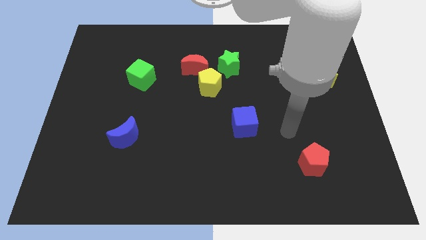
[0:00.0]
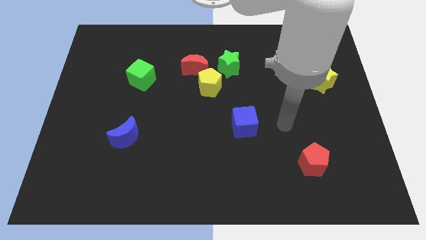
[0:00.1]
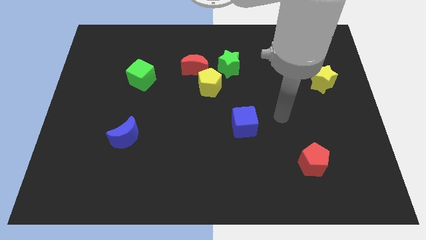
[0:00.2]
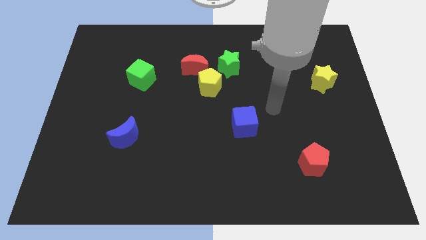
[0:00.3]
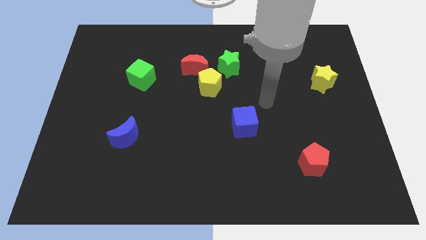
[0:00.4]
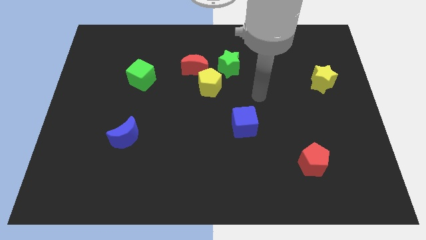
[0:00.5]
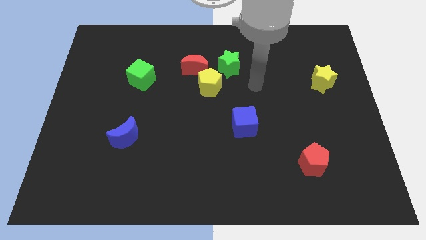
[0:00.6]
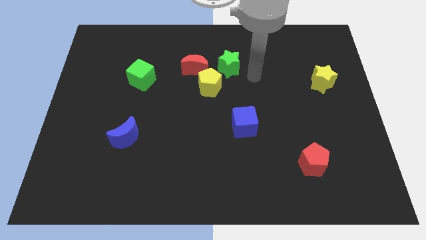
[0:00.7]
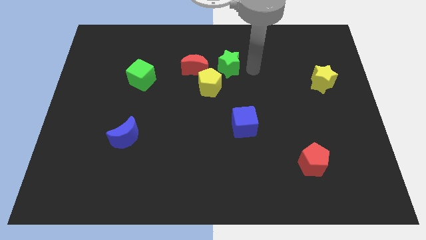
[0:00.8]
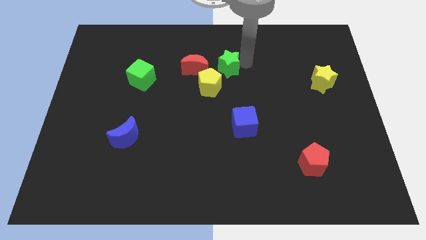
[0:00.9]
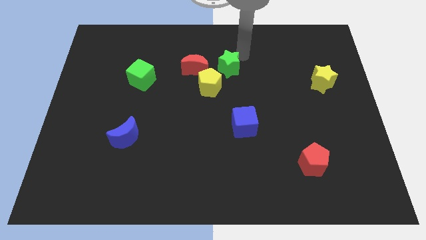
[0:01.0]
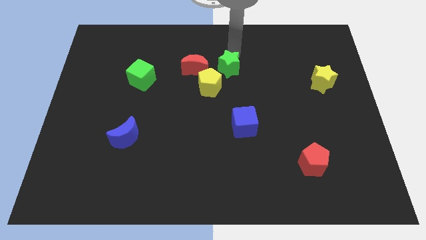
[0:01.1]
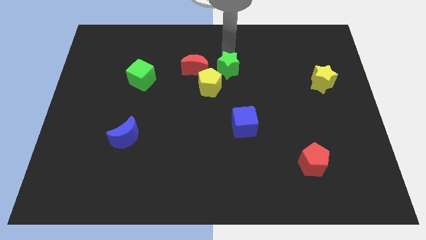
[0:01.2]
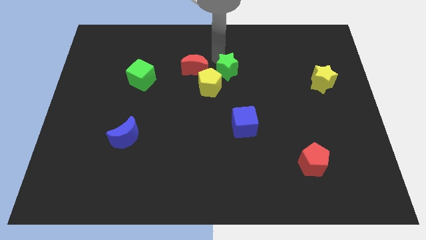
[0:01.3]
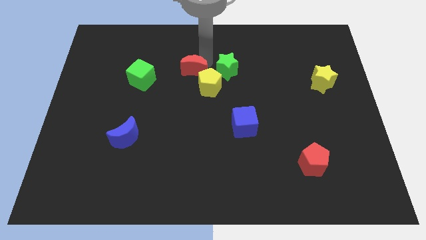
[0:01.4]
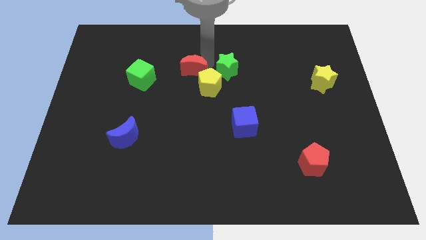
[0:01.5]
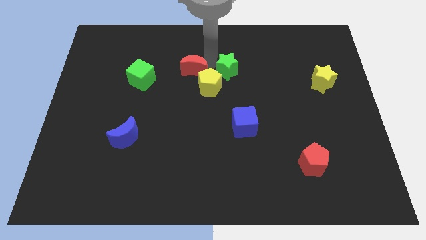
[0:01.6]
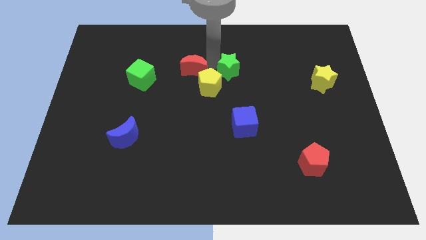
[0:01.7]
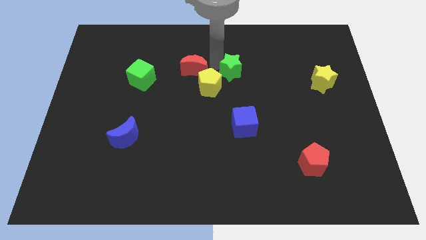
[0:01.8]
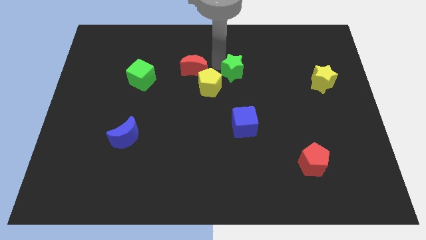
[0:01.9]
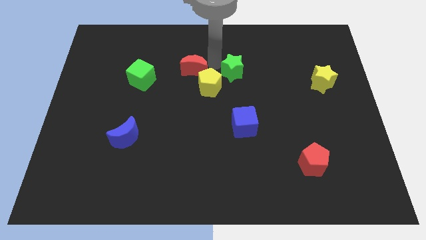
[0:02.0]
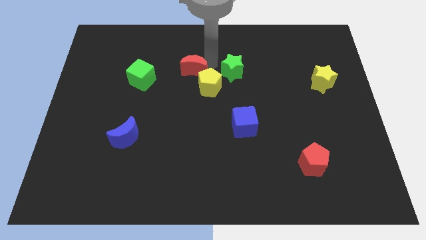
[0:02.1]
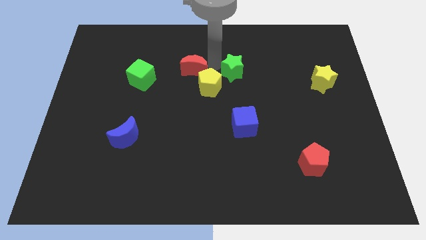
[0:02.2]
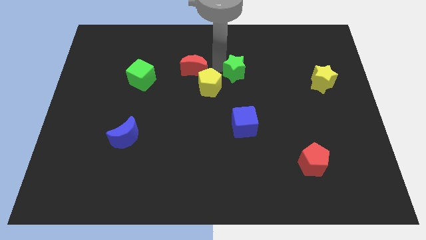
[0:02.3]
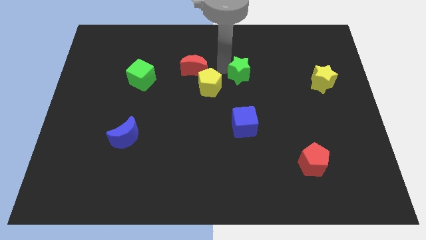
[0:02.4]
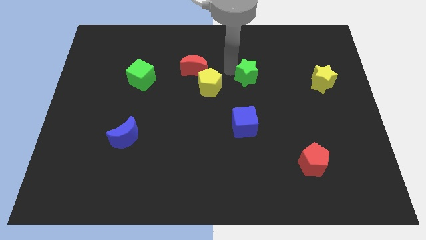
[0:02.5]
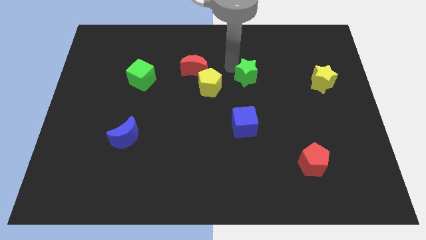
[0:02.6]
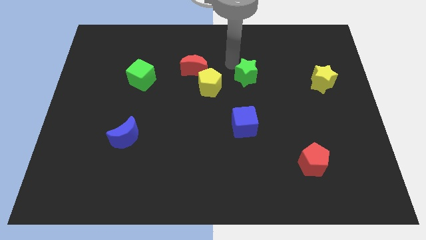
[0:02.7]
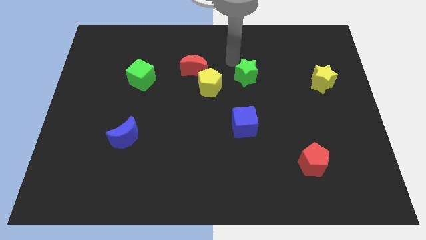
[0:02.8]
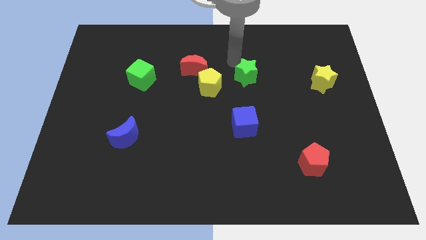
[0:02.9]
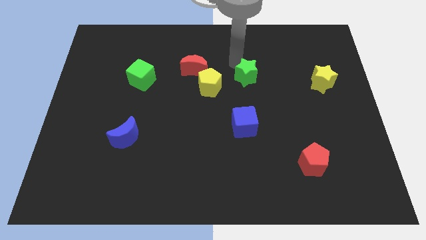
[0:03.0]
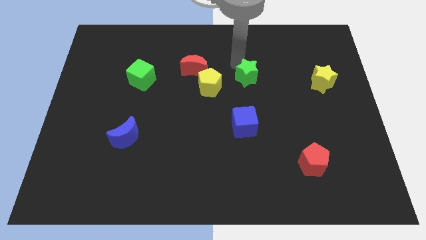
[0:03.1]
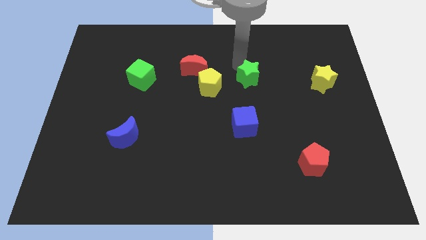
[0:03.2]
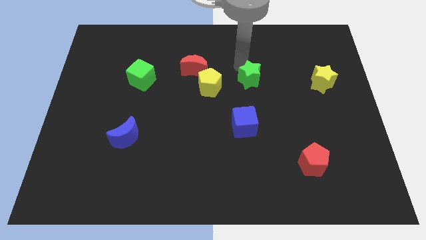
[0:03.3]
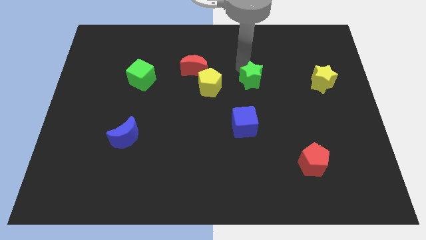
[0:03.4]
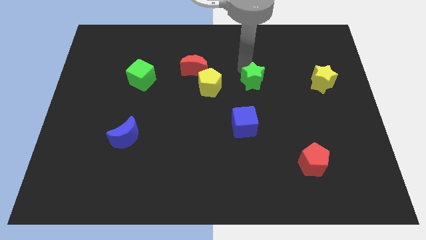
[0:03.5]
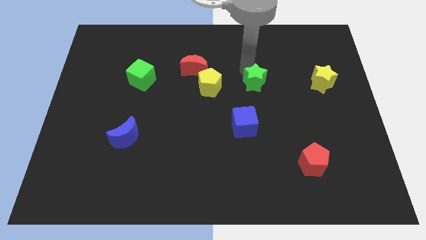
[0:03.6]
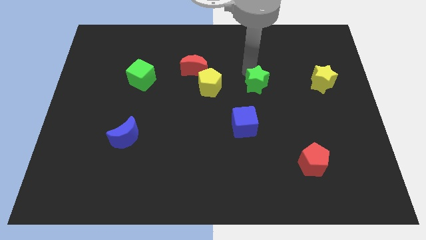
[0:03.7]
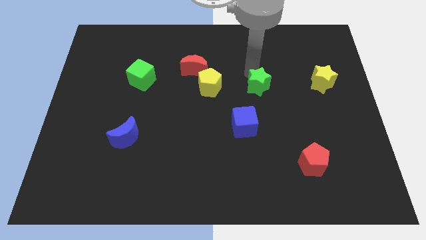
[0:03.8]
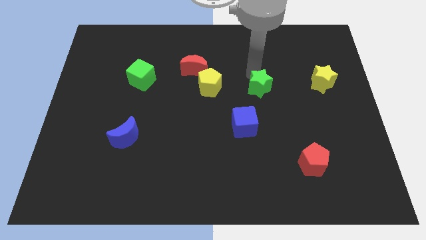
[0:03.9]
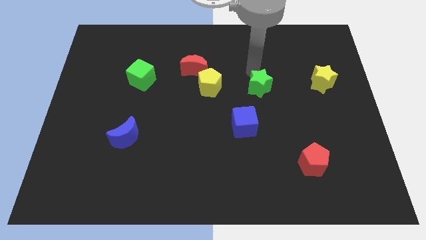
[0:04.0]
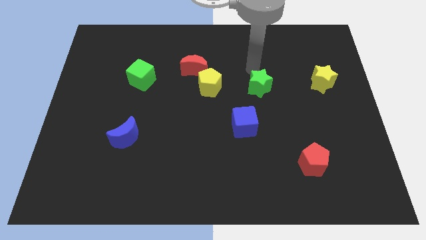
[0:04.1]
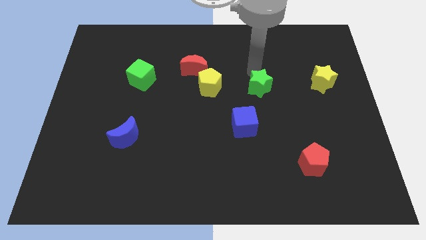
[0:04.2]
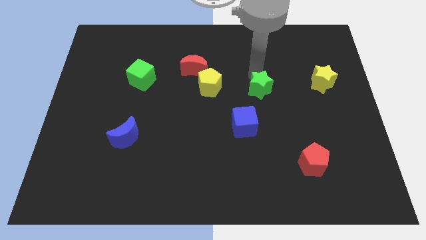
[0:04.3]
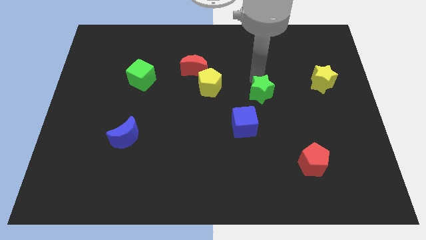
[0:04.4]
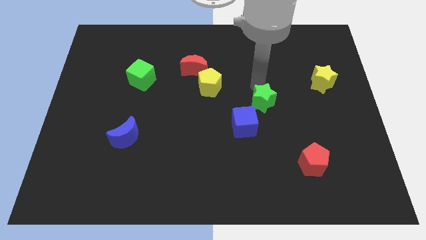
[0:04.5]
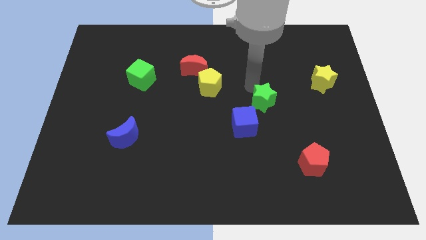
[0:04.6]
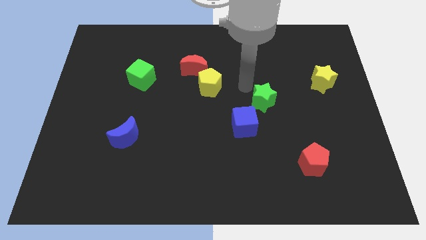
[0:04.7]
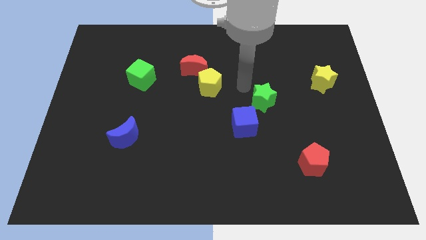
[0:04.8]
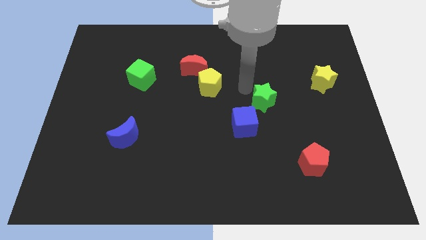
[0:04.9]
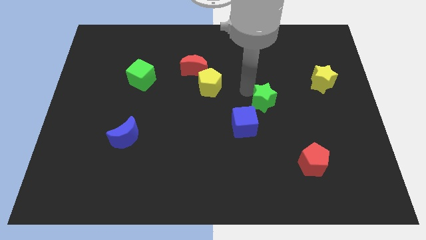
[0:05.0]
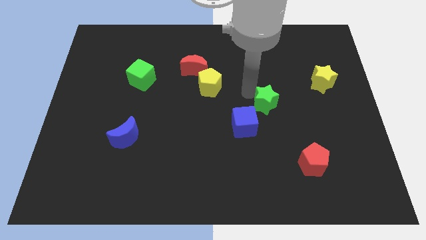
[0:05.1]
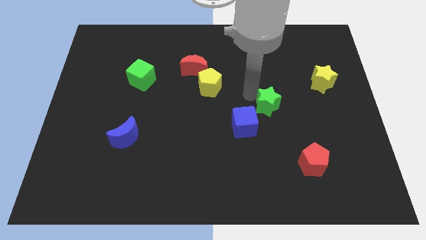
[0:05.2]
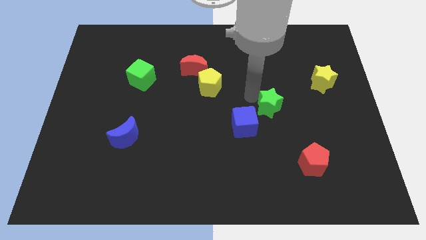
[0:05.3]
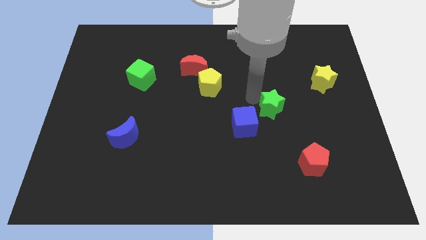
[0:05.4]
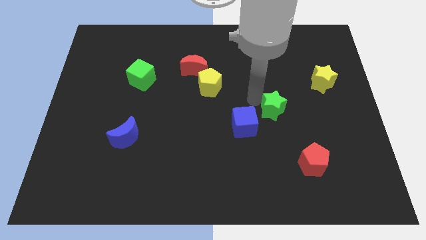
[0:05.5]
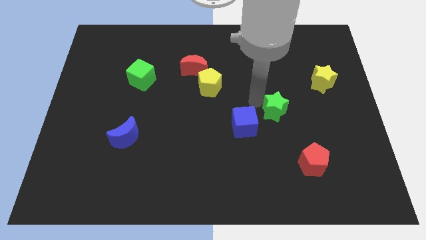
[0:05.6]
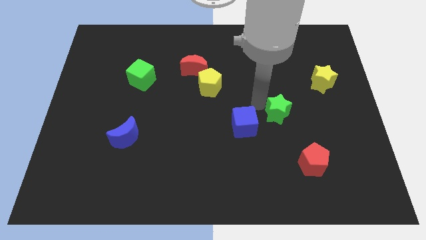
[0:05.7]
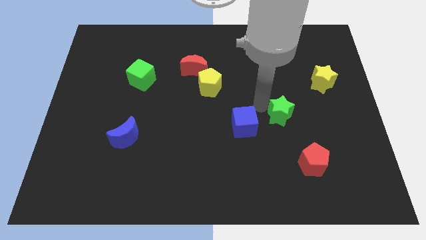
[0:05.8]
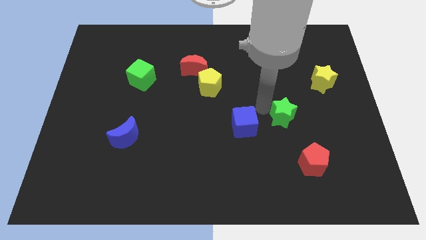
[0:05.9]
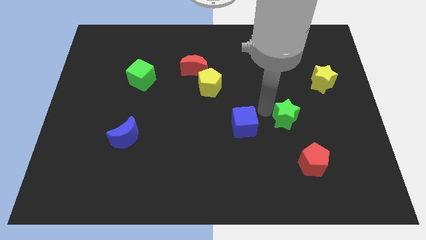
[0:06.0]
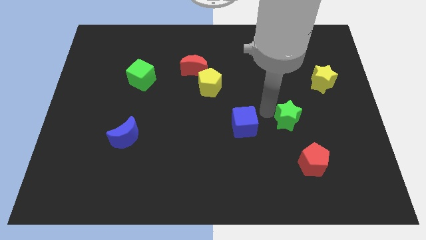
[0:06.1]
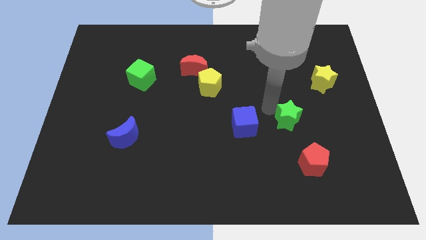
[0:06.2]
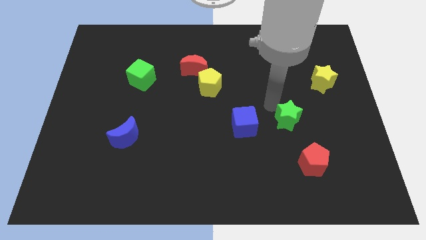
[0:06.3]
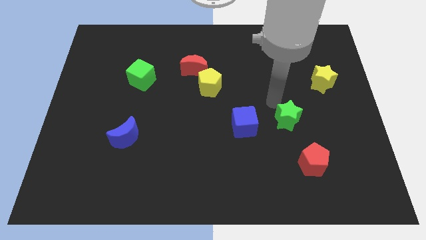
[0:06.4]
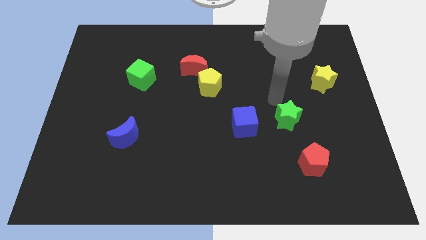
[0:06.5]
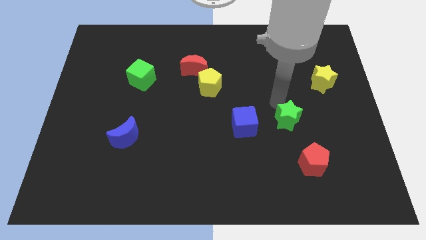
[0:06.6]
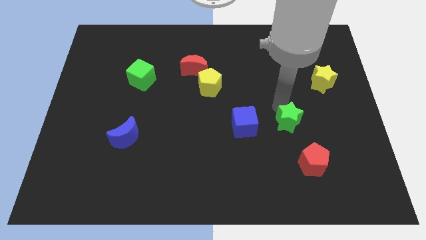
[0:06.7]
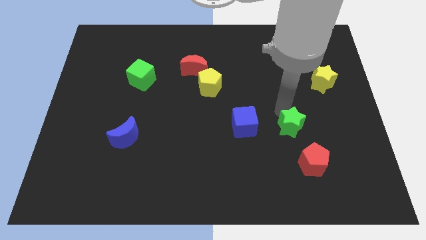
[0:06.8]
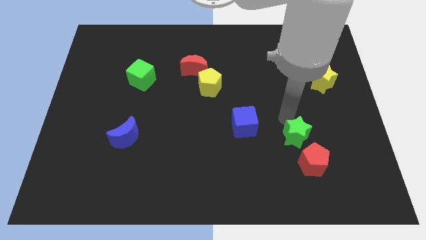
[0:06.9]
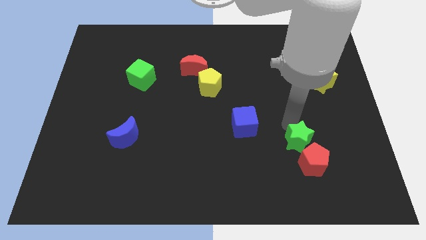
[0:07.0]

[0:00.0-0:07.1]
move the green star next to the red pentagon
